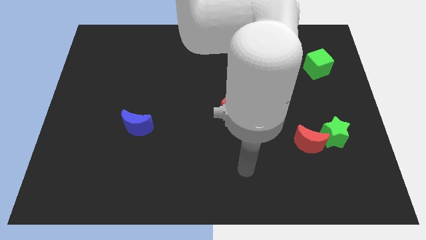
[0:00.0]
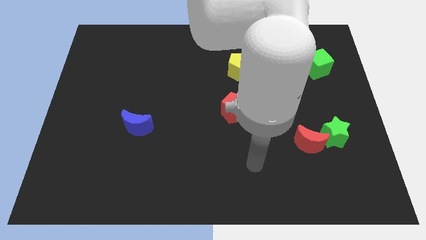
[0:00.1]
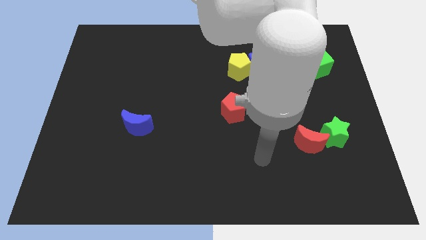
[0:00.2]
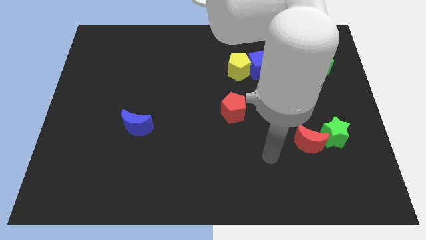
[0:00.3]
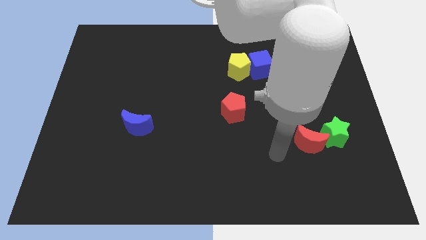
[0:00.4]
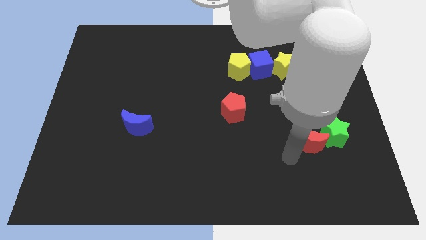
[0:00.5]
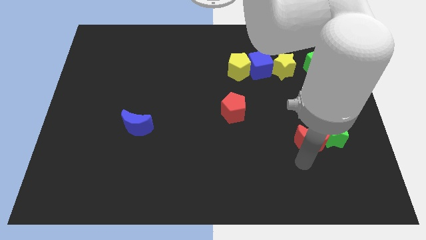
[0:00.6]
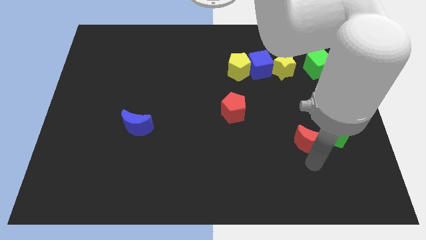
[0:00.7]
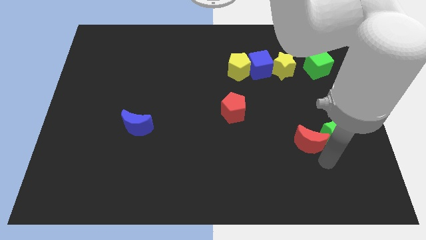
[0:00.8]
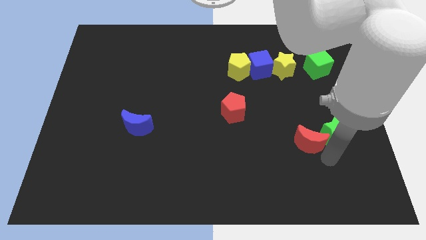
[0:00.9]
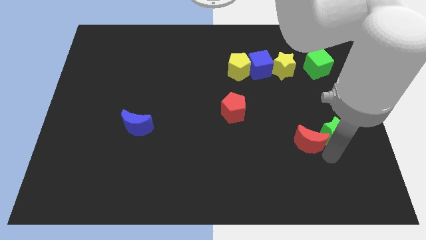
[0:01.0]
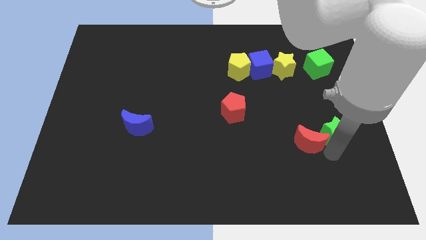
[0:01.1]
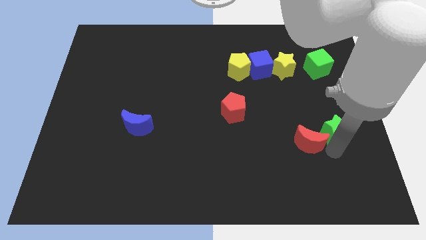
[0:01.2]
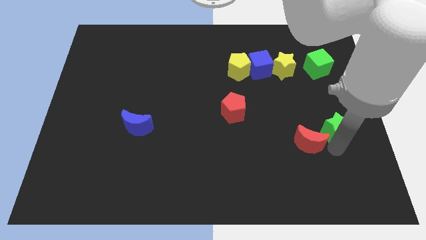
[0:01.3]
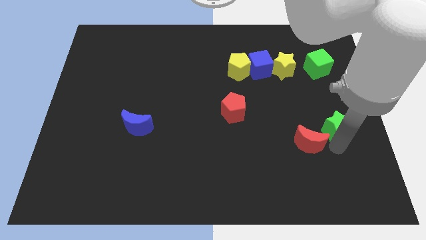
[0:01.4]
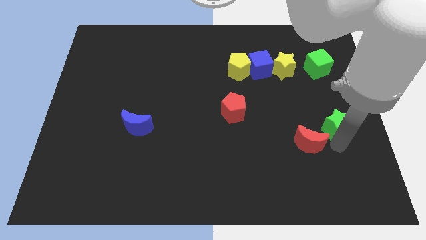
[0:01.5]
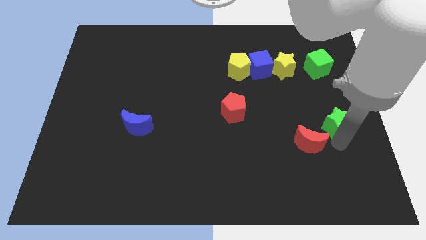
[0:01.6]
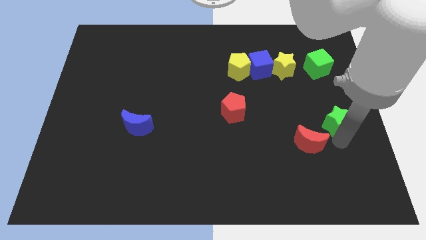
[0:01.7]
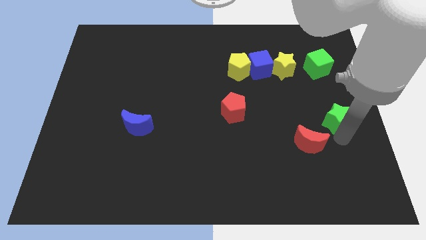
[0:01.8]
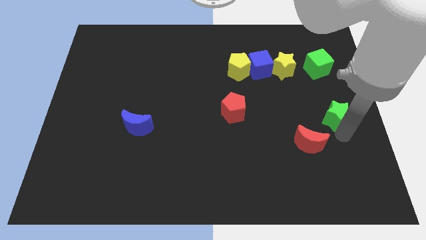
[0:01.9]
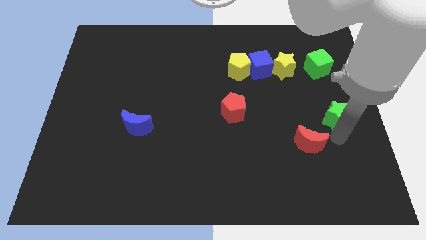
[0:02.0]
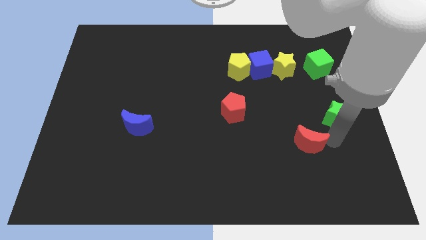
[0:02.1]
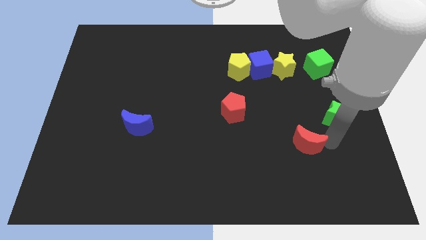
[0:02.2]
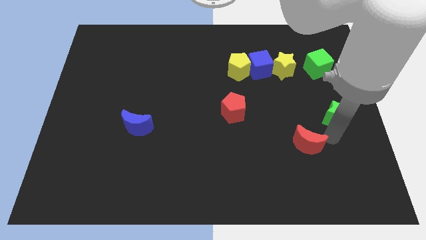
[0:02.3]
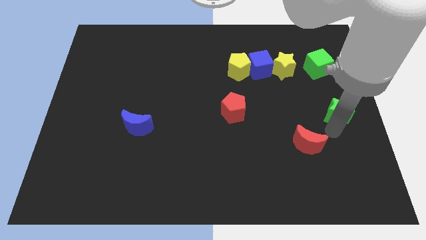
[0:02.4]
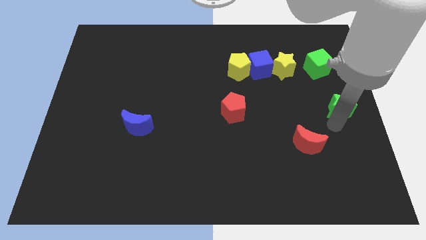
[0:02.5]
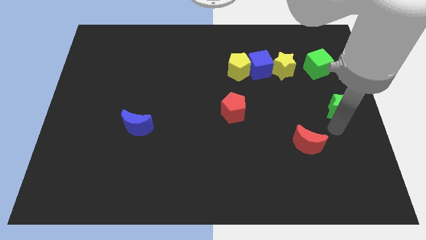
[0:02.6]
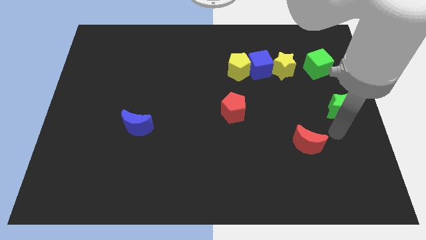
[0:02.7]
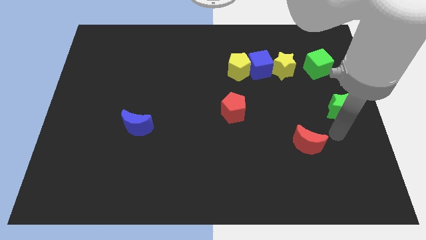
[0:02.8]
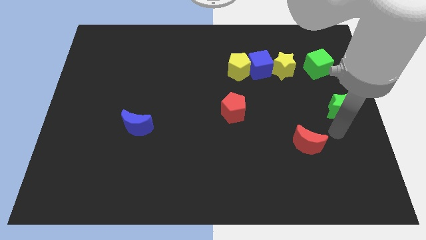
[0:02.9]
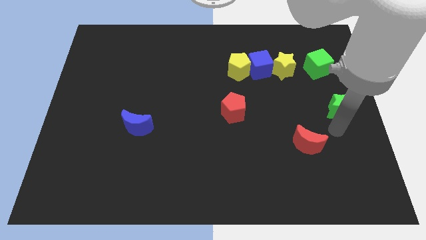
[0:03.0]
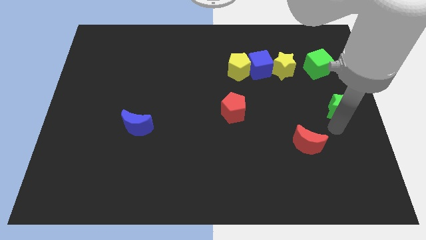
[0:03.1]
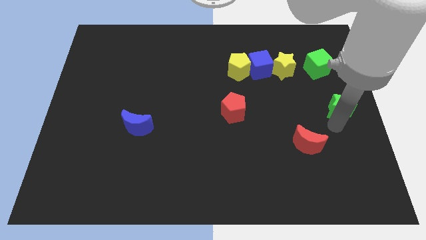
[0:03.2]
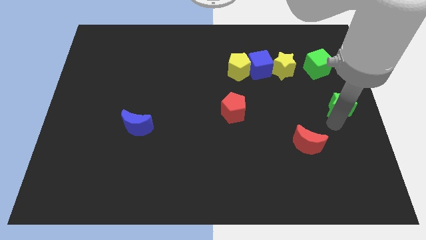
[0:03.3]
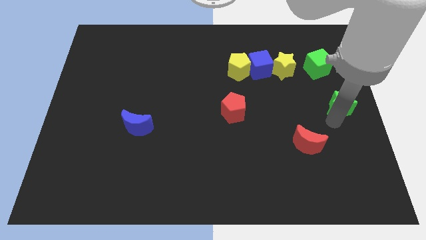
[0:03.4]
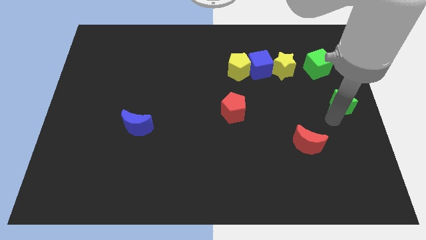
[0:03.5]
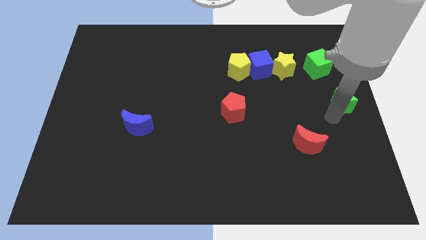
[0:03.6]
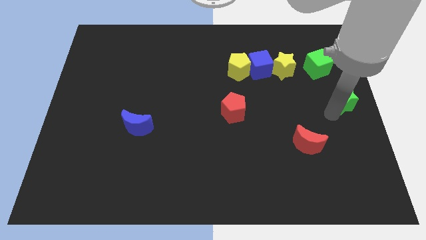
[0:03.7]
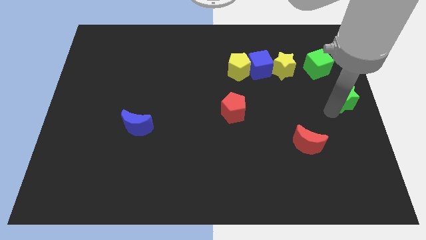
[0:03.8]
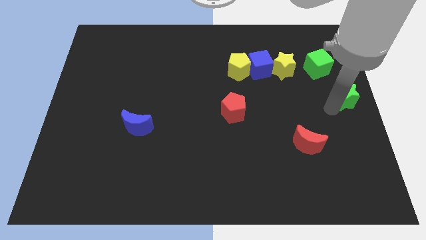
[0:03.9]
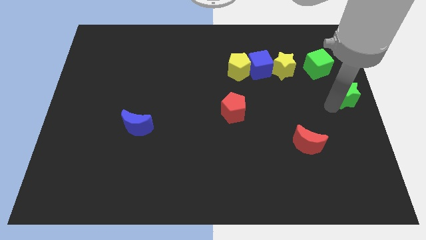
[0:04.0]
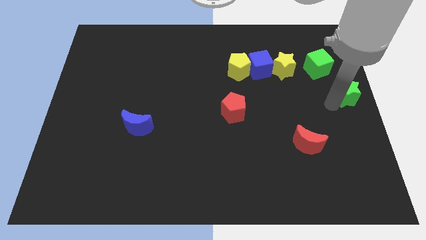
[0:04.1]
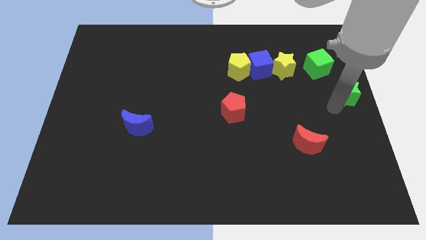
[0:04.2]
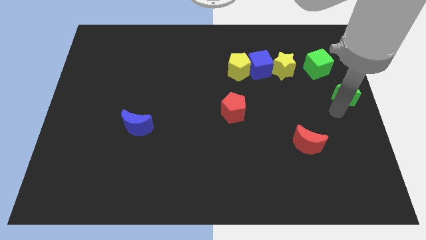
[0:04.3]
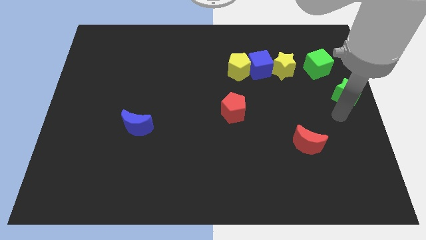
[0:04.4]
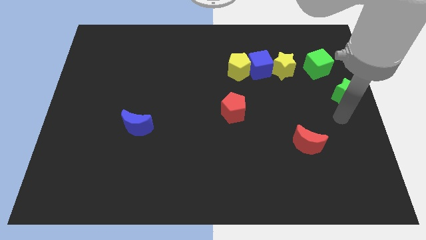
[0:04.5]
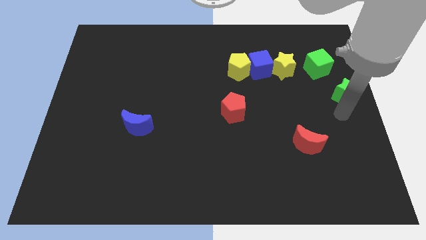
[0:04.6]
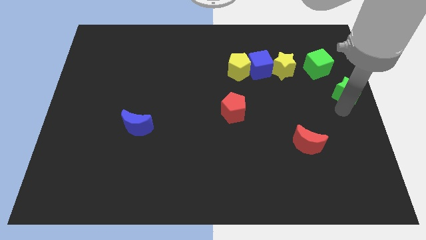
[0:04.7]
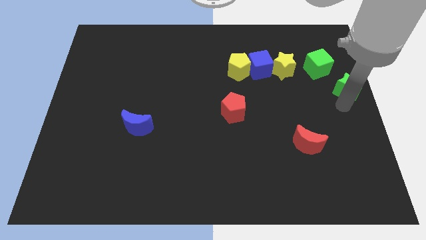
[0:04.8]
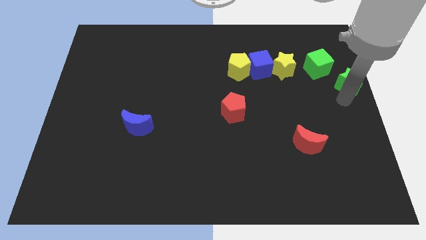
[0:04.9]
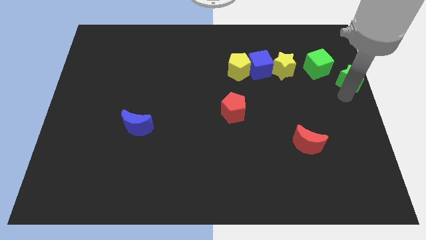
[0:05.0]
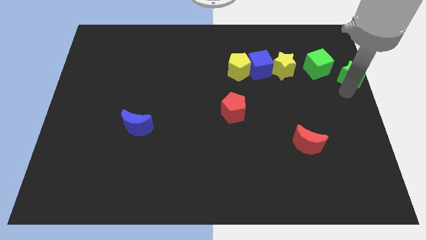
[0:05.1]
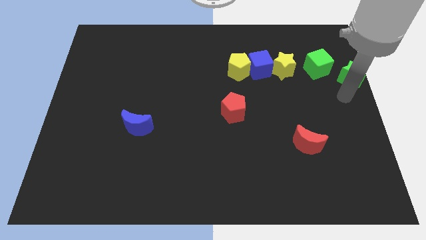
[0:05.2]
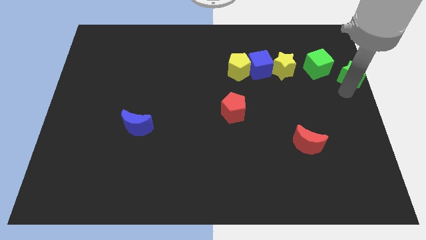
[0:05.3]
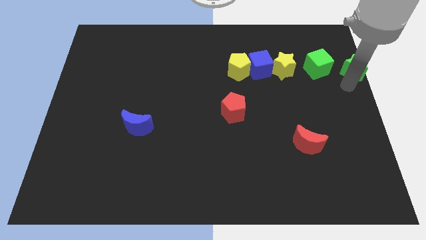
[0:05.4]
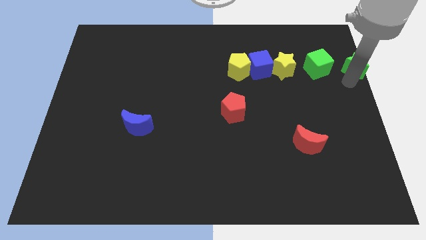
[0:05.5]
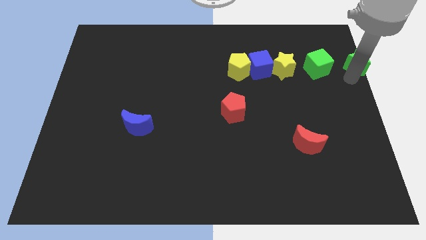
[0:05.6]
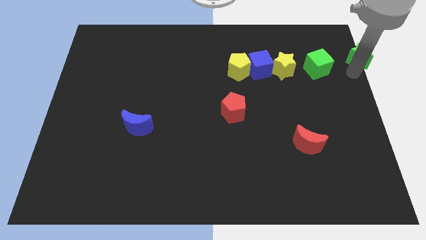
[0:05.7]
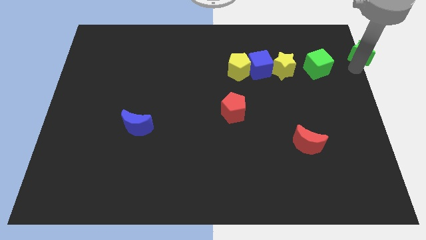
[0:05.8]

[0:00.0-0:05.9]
move the green star to the top right corner

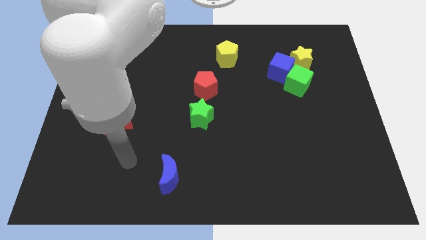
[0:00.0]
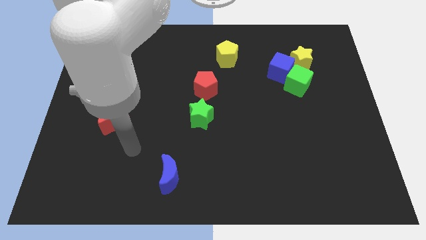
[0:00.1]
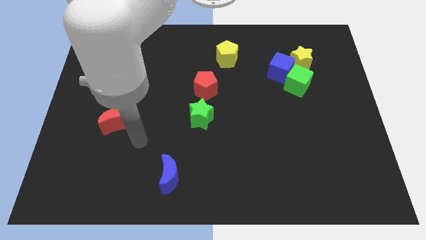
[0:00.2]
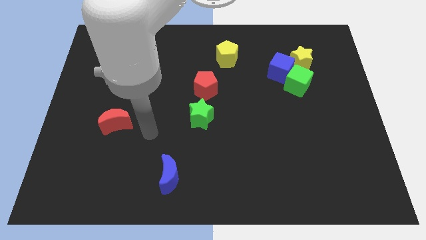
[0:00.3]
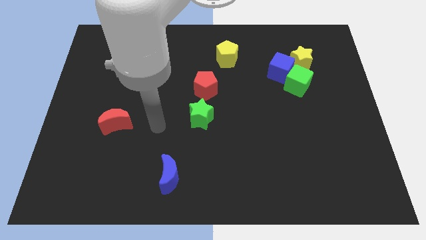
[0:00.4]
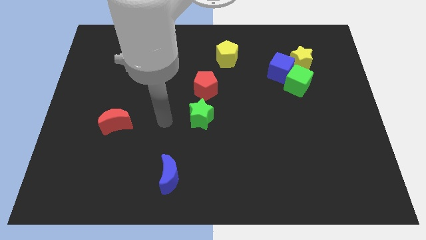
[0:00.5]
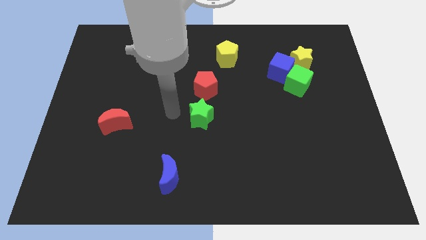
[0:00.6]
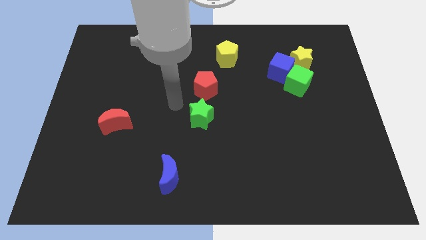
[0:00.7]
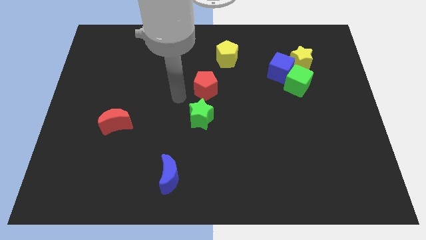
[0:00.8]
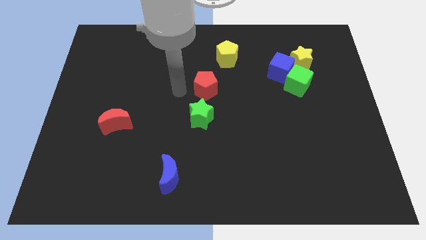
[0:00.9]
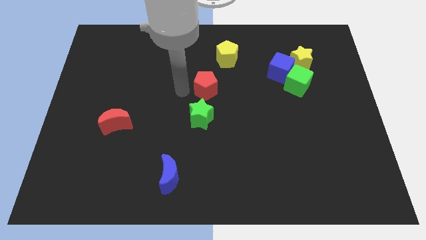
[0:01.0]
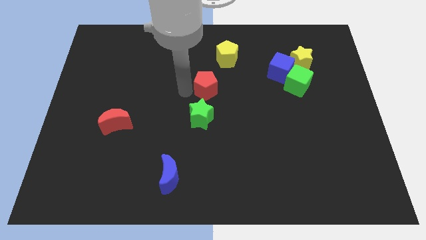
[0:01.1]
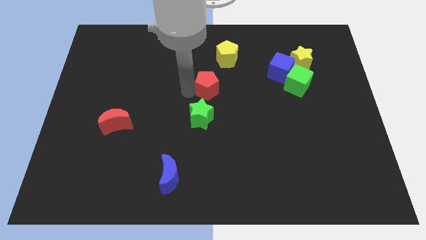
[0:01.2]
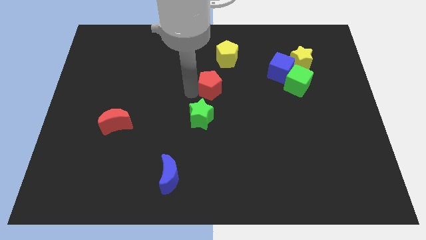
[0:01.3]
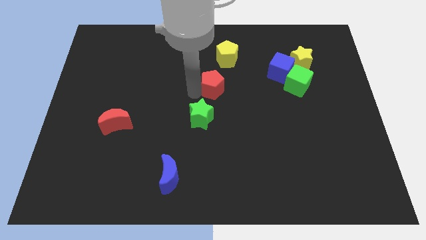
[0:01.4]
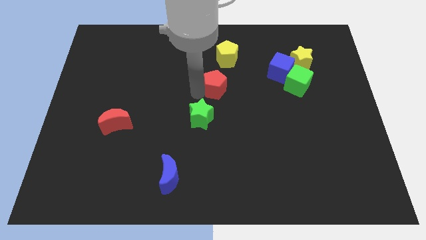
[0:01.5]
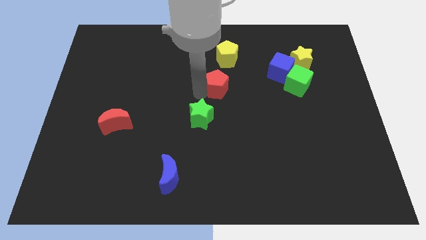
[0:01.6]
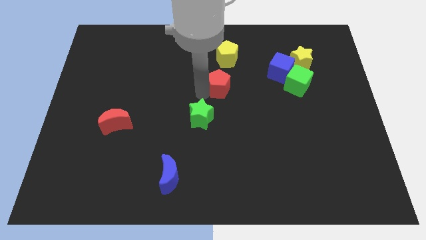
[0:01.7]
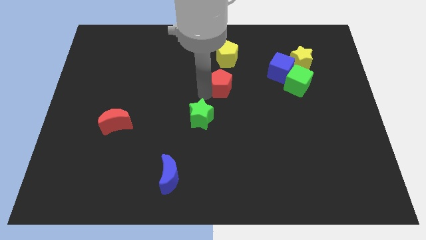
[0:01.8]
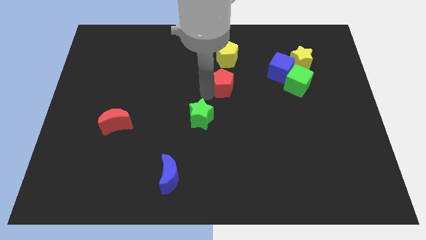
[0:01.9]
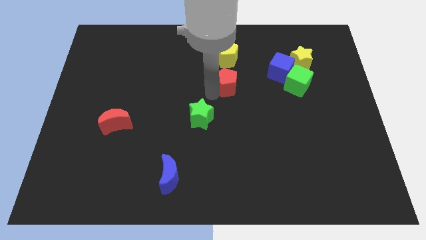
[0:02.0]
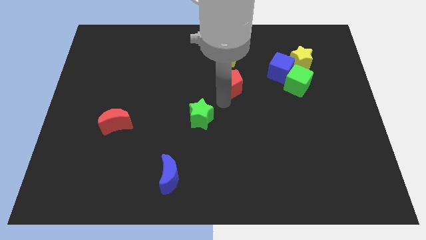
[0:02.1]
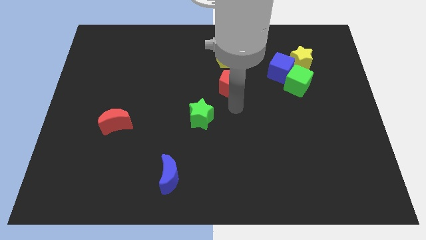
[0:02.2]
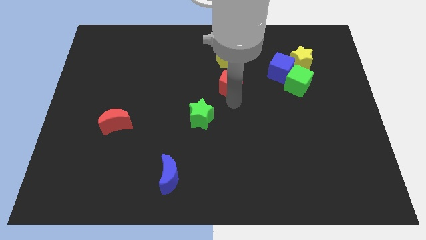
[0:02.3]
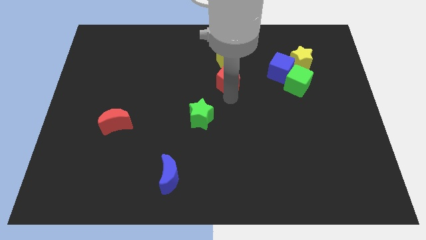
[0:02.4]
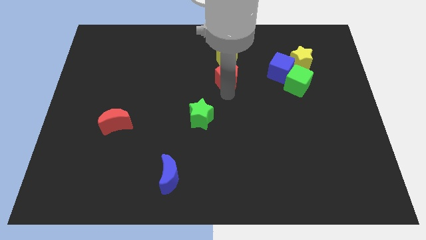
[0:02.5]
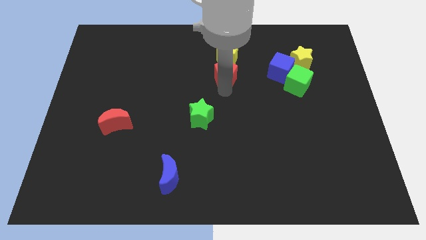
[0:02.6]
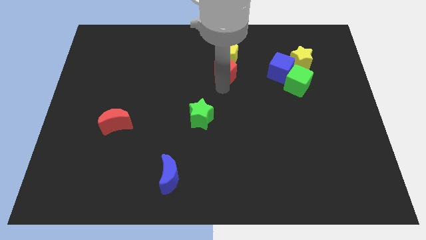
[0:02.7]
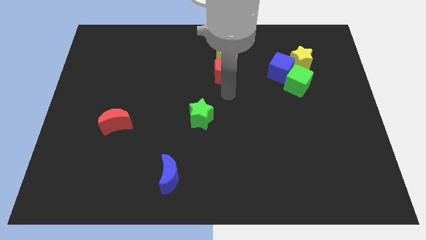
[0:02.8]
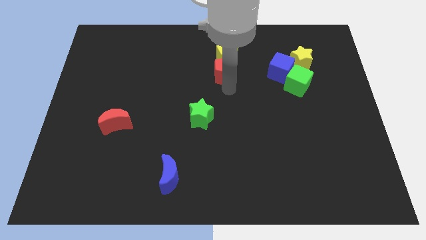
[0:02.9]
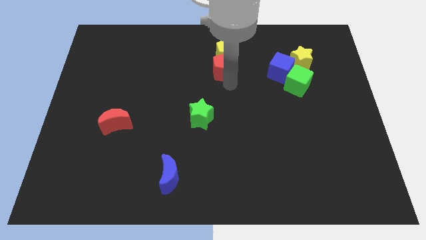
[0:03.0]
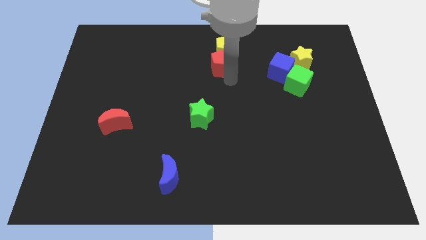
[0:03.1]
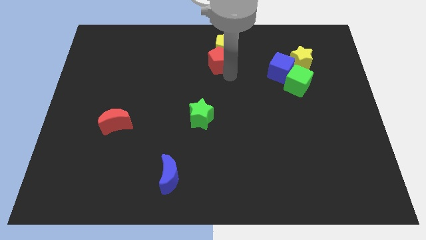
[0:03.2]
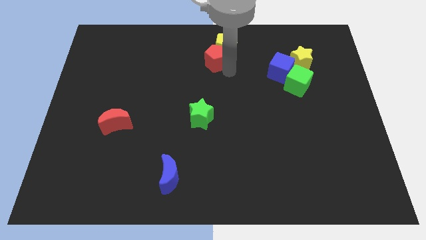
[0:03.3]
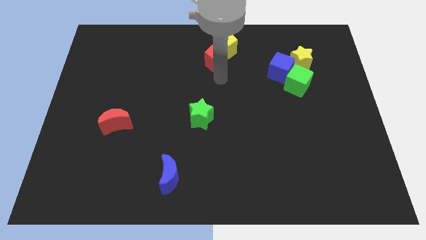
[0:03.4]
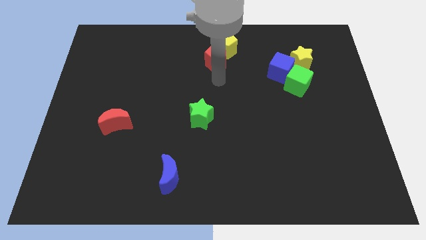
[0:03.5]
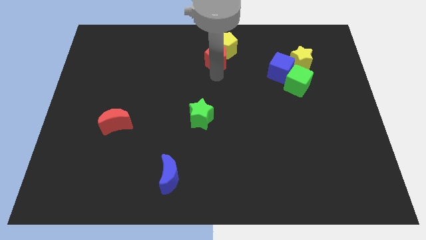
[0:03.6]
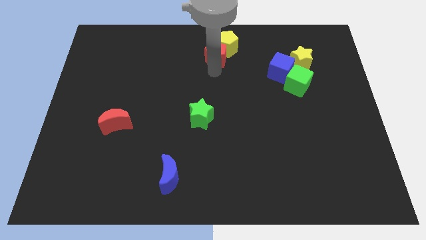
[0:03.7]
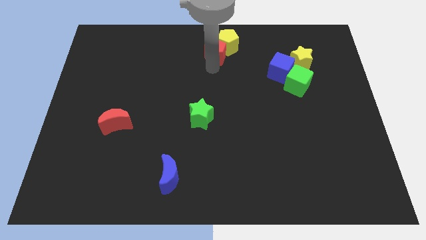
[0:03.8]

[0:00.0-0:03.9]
push the red pentagon to the top
